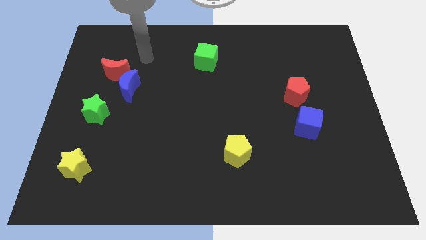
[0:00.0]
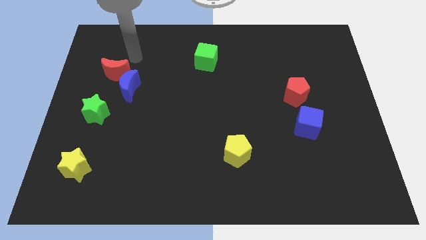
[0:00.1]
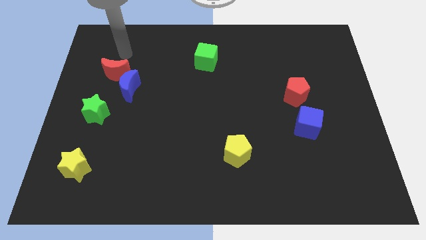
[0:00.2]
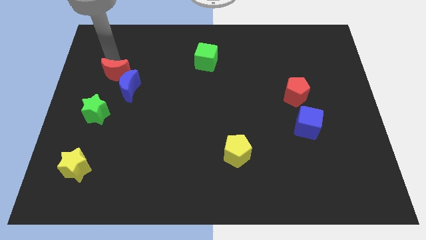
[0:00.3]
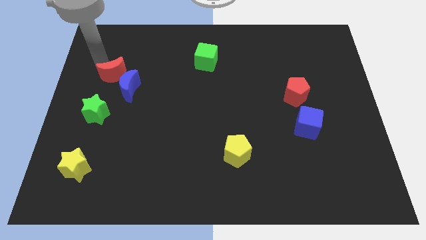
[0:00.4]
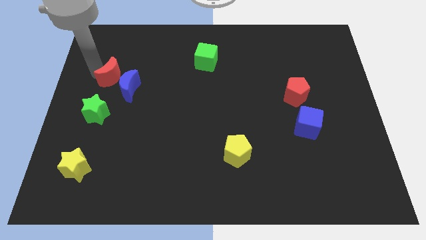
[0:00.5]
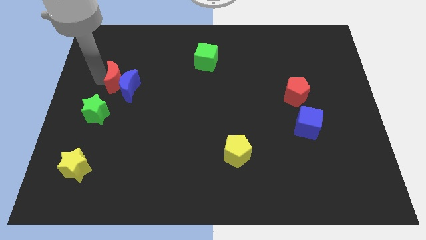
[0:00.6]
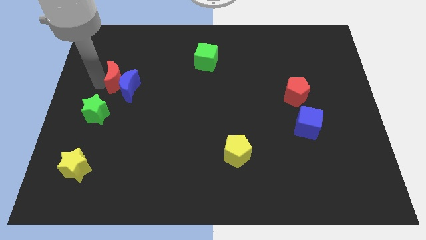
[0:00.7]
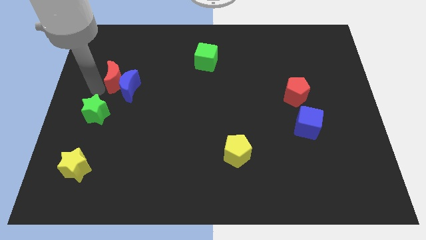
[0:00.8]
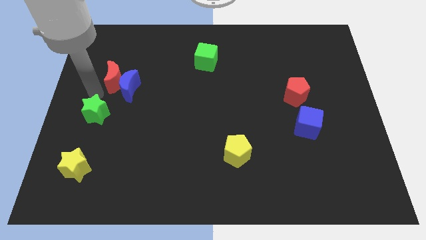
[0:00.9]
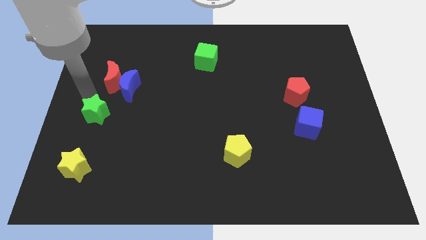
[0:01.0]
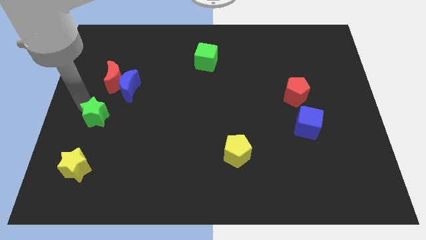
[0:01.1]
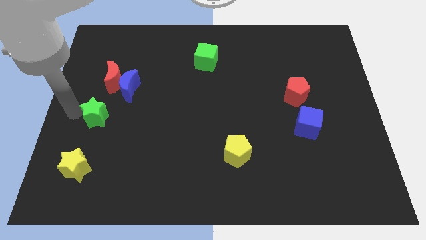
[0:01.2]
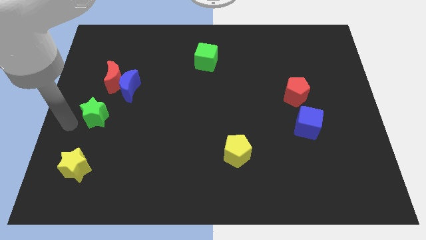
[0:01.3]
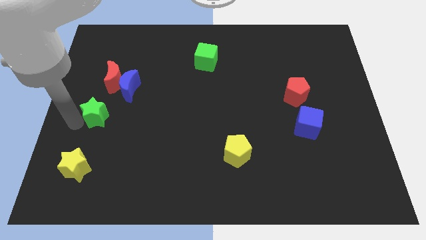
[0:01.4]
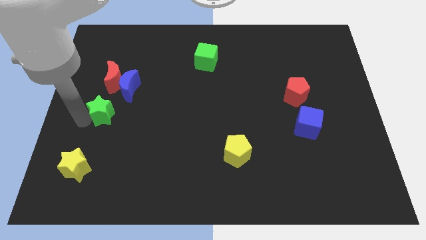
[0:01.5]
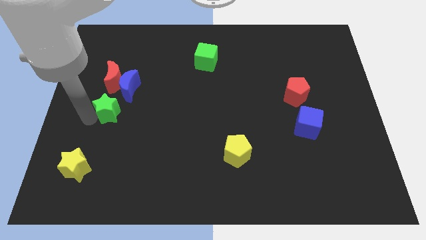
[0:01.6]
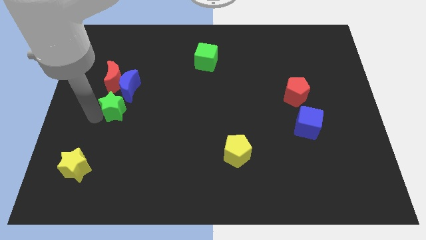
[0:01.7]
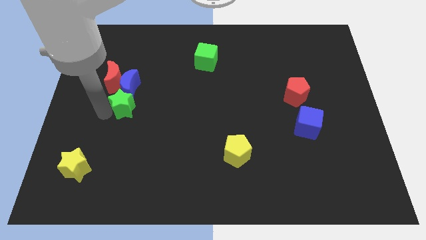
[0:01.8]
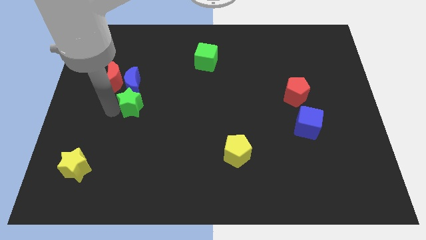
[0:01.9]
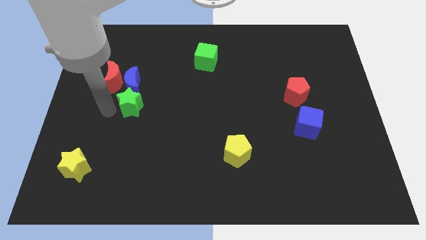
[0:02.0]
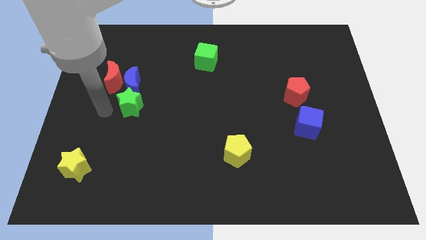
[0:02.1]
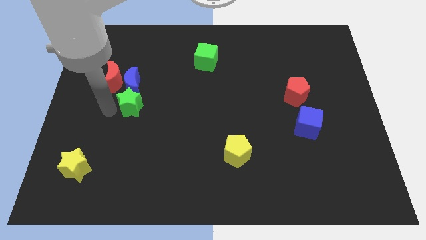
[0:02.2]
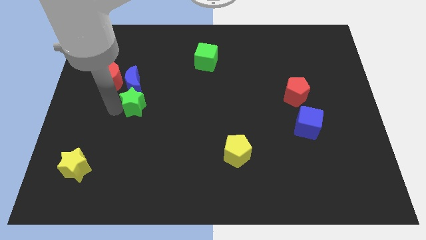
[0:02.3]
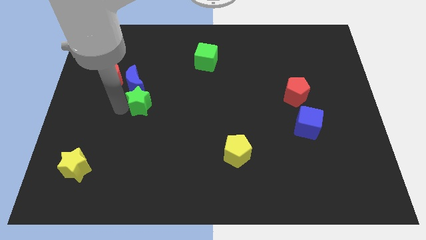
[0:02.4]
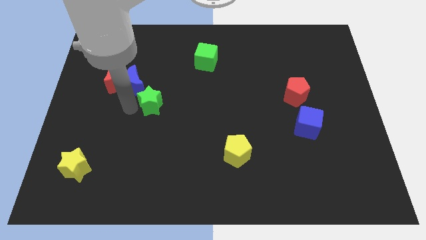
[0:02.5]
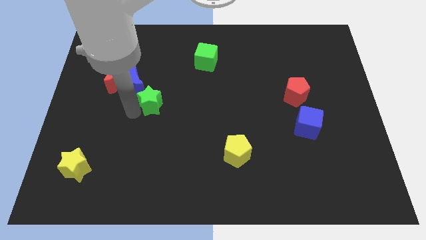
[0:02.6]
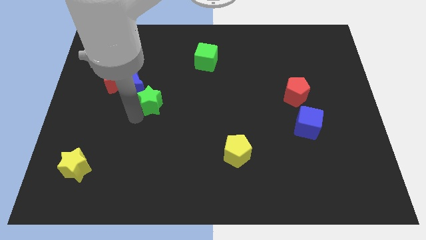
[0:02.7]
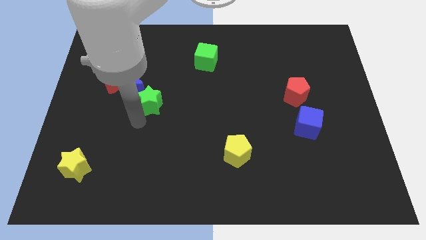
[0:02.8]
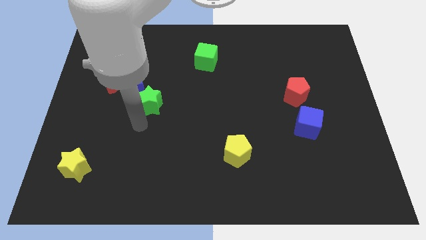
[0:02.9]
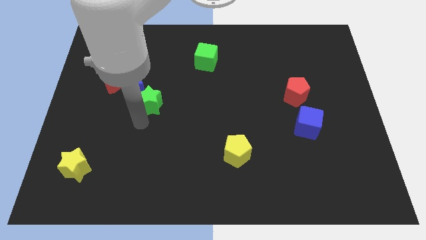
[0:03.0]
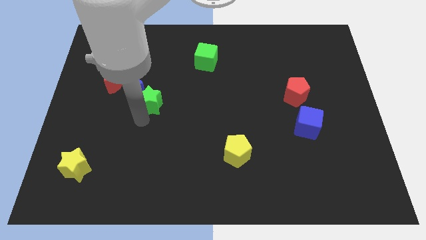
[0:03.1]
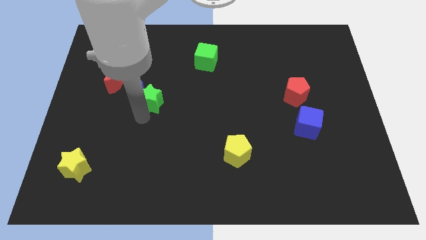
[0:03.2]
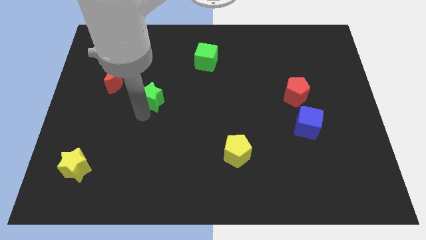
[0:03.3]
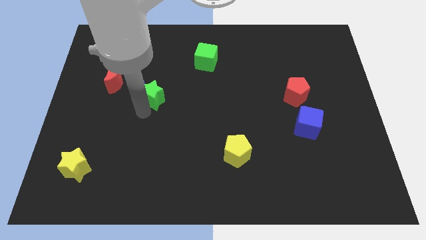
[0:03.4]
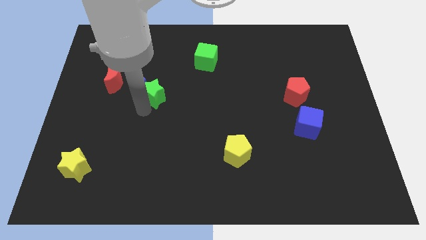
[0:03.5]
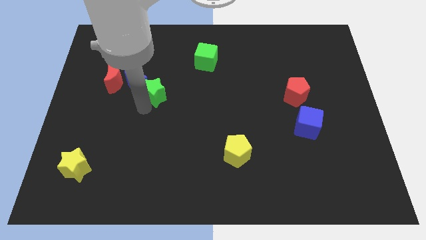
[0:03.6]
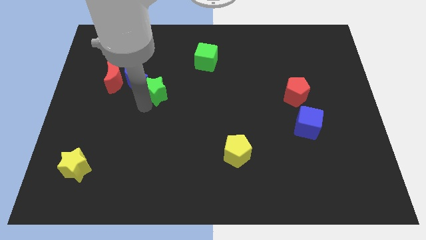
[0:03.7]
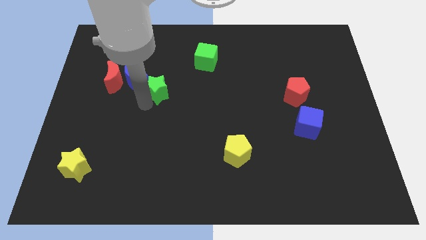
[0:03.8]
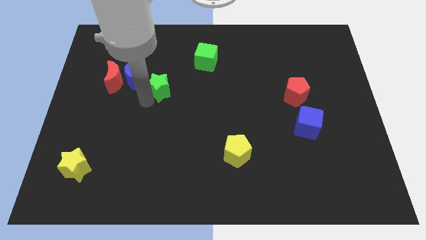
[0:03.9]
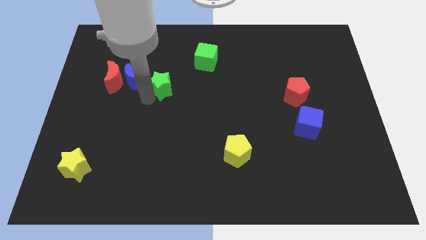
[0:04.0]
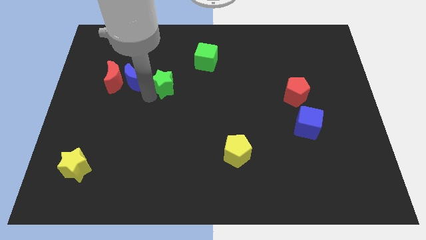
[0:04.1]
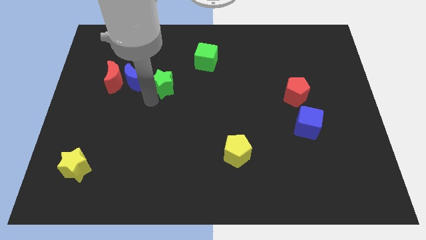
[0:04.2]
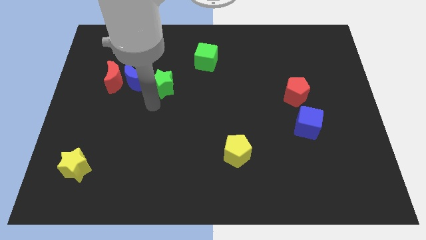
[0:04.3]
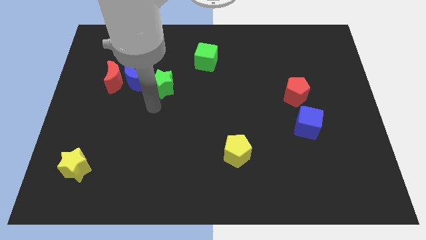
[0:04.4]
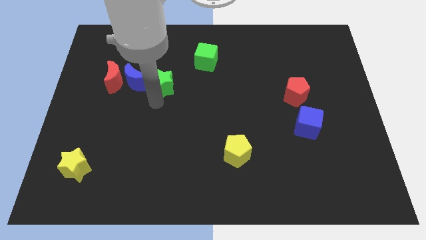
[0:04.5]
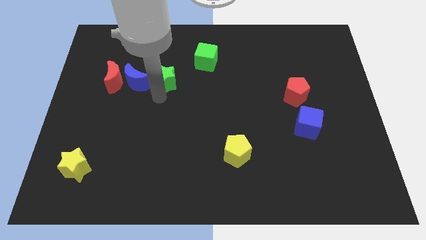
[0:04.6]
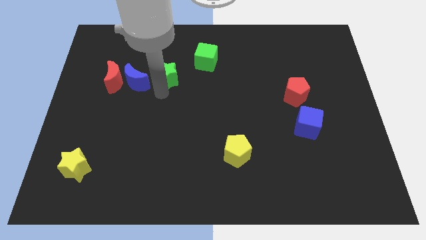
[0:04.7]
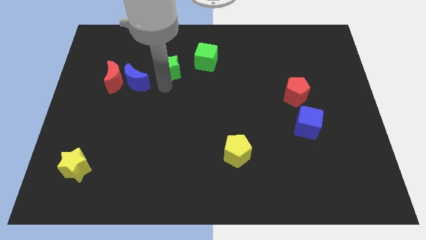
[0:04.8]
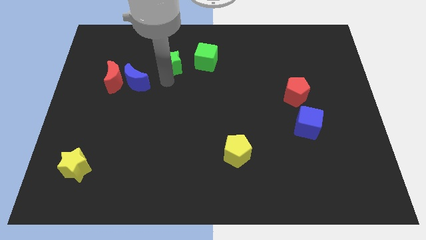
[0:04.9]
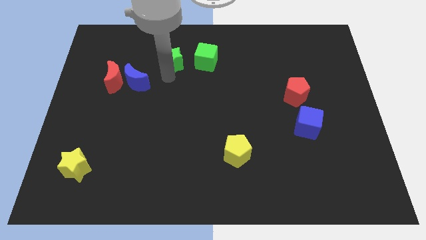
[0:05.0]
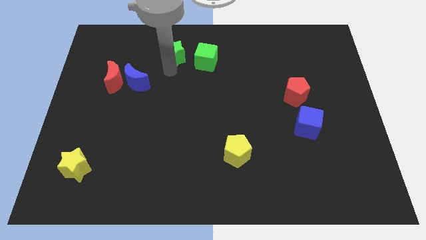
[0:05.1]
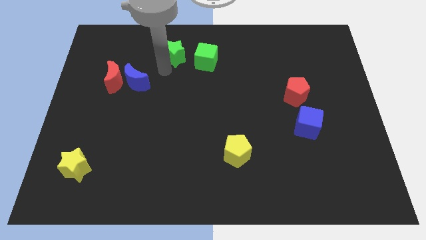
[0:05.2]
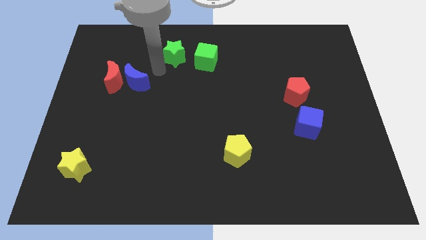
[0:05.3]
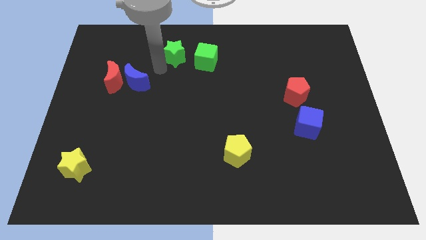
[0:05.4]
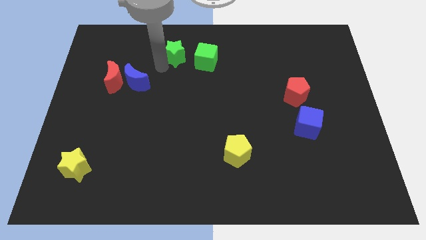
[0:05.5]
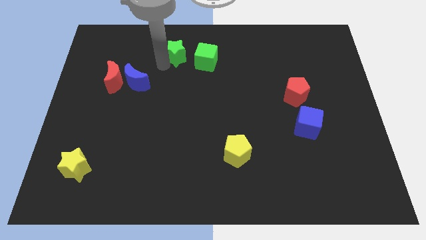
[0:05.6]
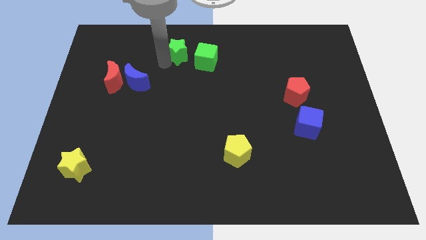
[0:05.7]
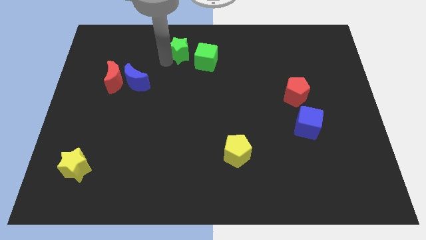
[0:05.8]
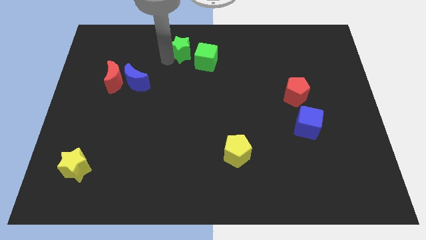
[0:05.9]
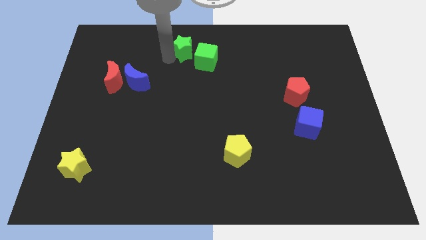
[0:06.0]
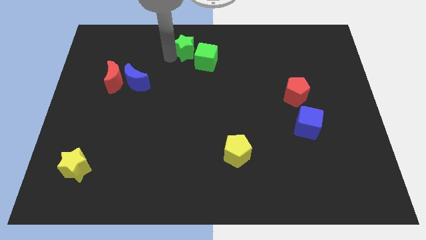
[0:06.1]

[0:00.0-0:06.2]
move the green star to the top side
